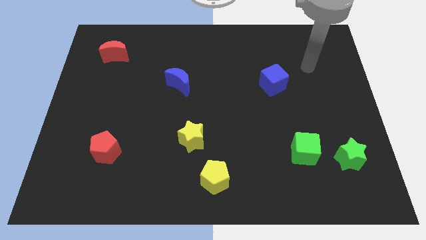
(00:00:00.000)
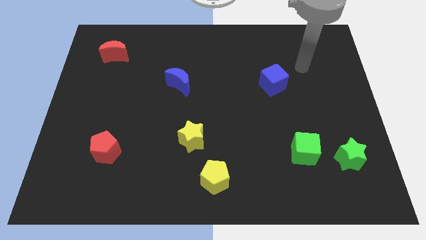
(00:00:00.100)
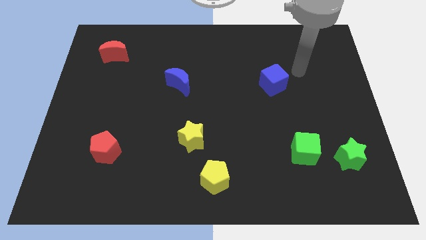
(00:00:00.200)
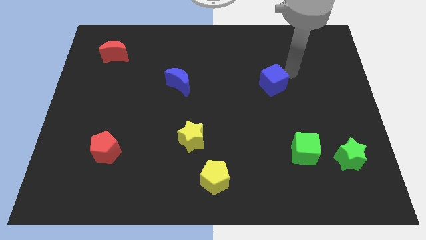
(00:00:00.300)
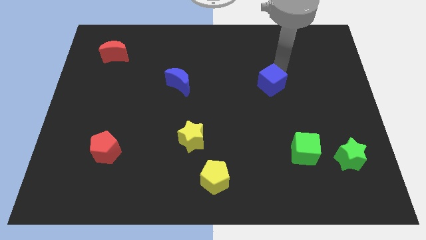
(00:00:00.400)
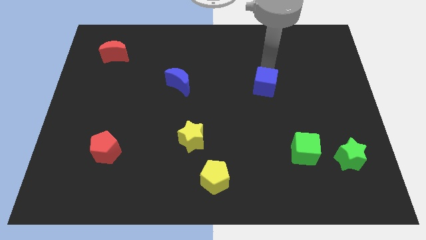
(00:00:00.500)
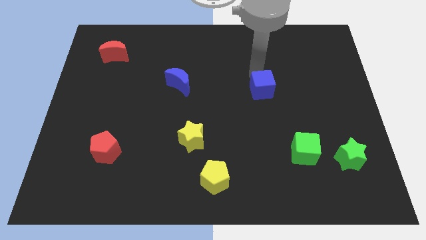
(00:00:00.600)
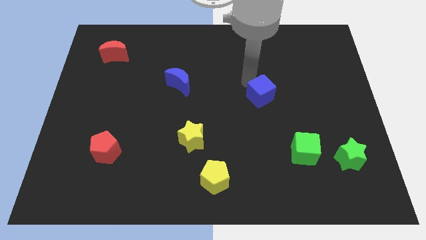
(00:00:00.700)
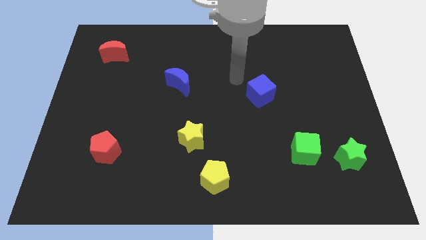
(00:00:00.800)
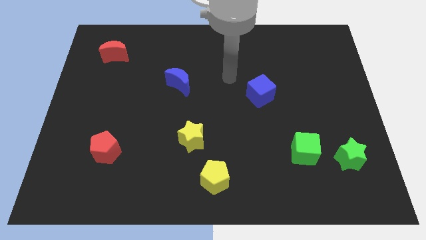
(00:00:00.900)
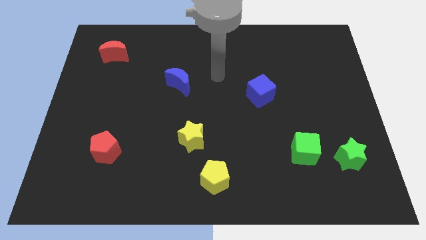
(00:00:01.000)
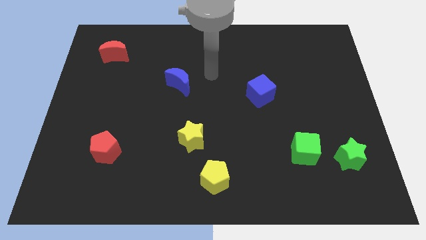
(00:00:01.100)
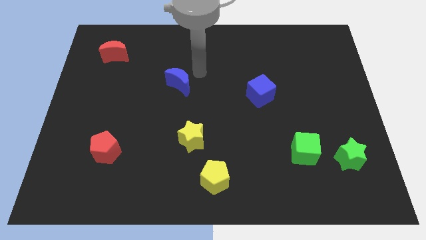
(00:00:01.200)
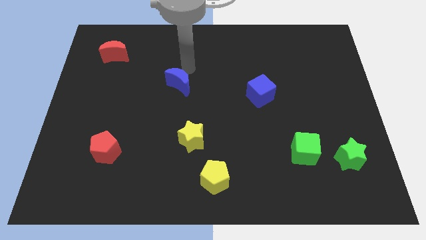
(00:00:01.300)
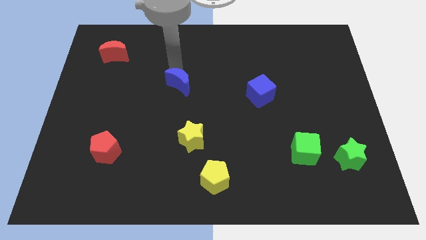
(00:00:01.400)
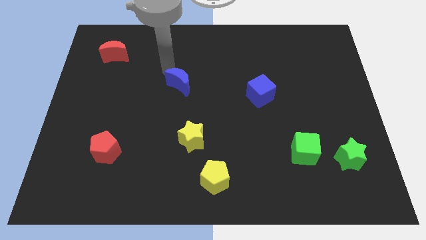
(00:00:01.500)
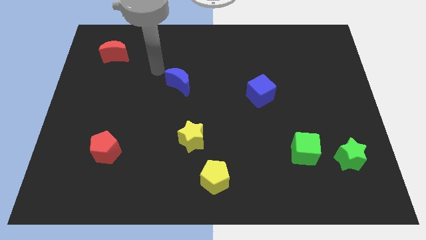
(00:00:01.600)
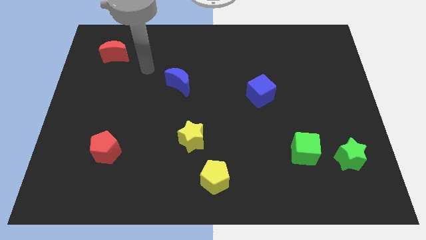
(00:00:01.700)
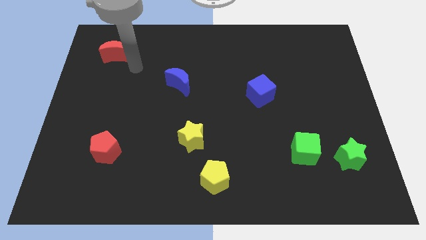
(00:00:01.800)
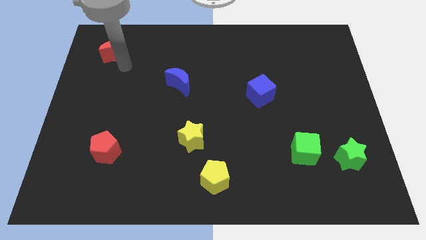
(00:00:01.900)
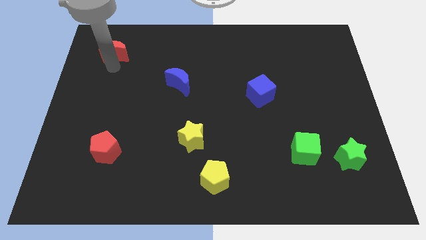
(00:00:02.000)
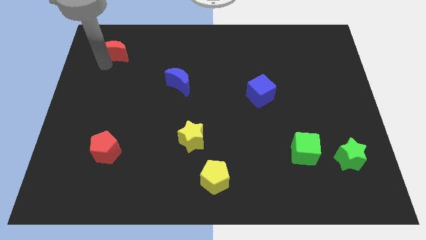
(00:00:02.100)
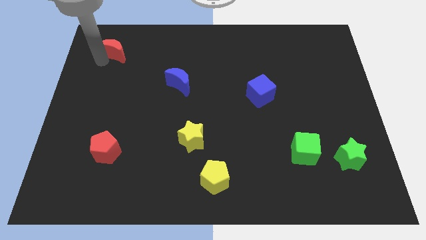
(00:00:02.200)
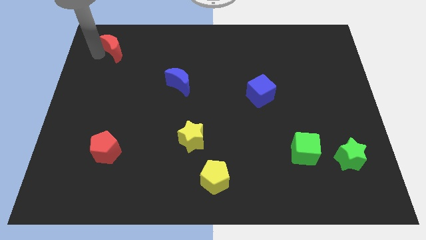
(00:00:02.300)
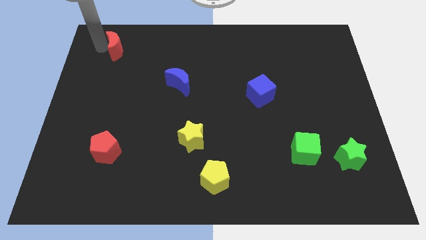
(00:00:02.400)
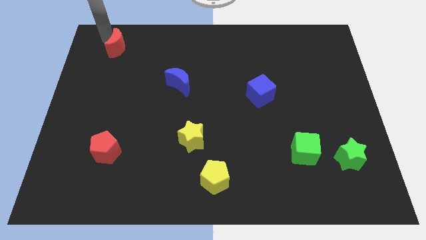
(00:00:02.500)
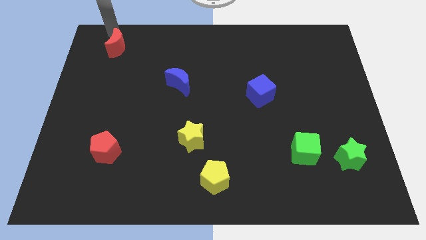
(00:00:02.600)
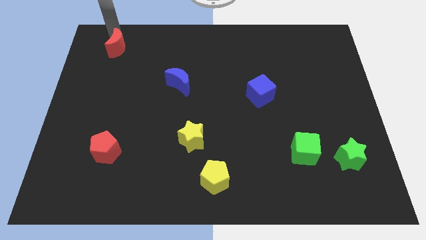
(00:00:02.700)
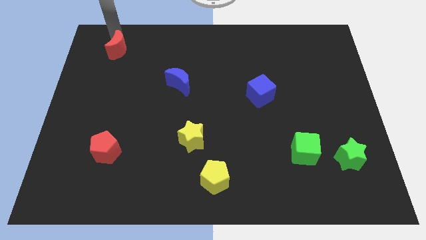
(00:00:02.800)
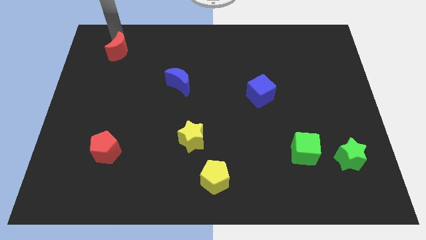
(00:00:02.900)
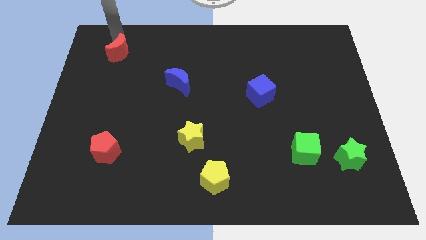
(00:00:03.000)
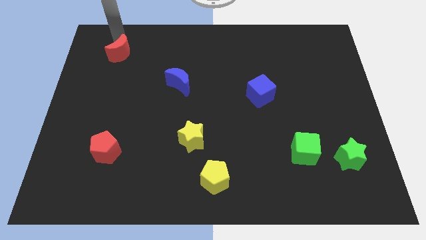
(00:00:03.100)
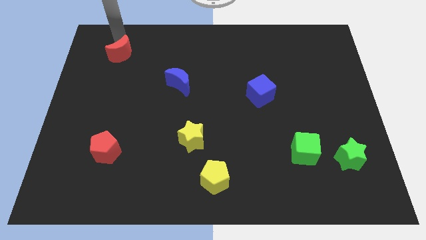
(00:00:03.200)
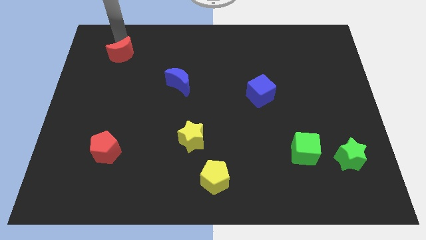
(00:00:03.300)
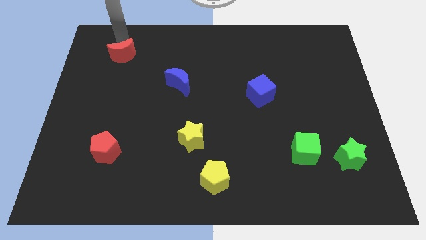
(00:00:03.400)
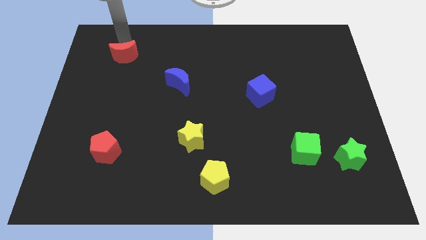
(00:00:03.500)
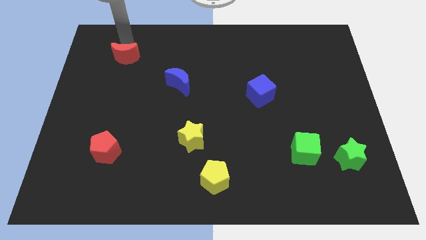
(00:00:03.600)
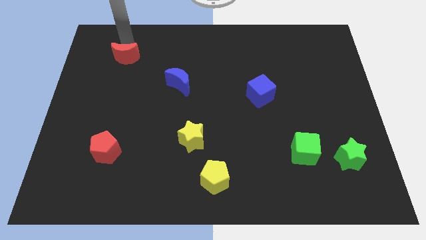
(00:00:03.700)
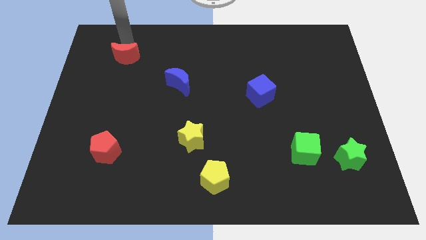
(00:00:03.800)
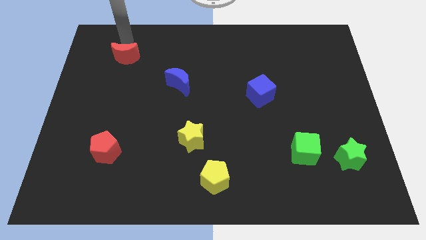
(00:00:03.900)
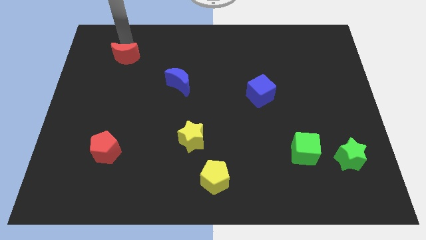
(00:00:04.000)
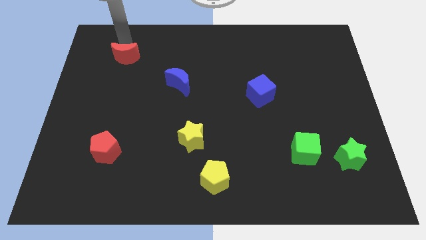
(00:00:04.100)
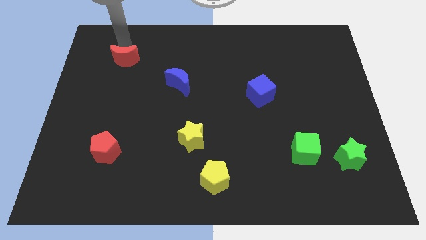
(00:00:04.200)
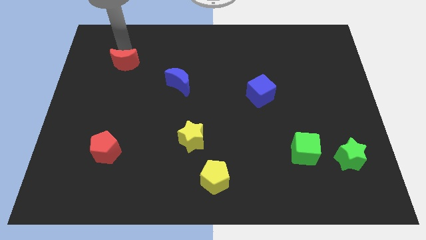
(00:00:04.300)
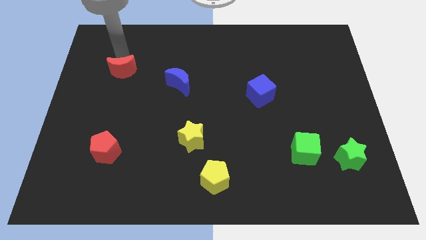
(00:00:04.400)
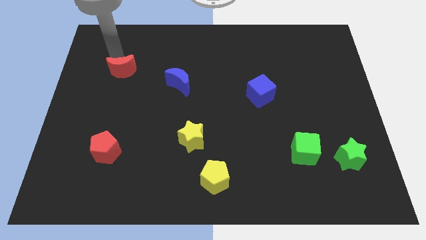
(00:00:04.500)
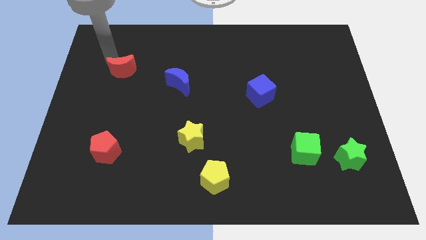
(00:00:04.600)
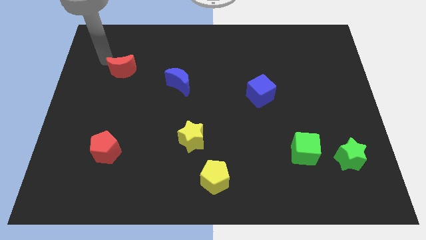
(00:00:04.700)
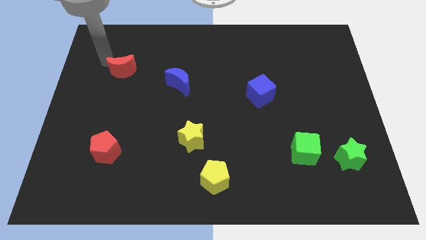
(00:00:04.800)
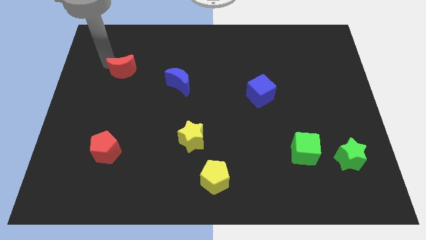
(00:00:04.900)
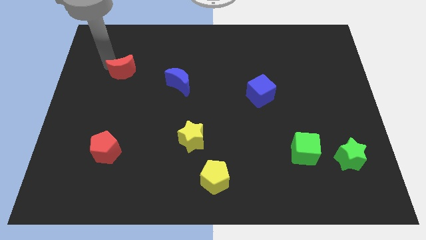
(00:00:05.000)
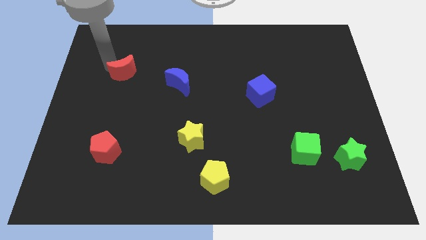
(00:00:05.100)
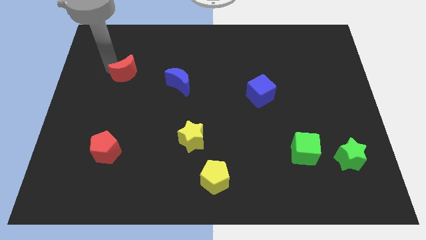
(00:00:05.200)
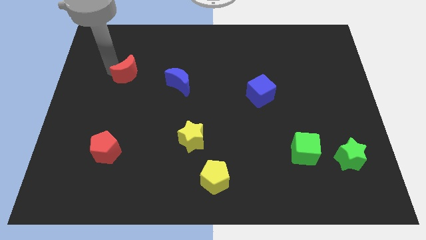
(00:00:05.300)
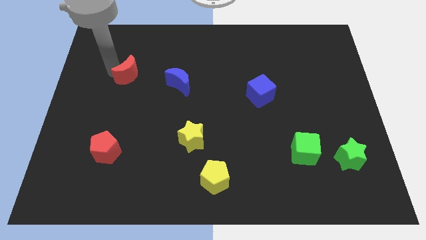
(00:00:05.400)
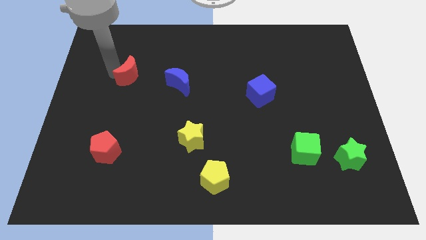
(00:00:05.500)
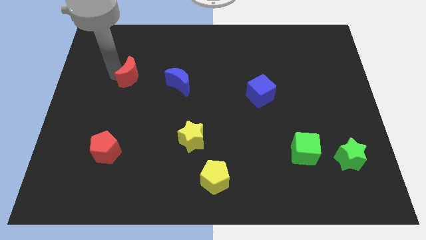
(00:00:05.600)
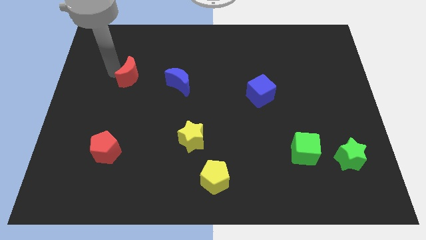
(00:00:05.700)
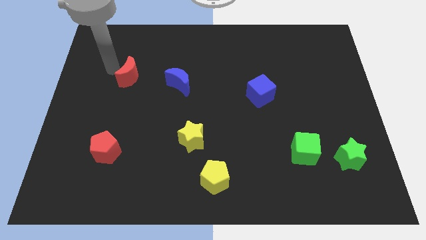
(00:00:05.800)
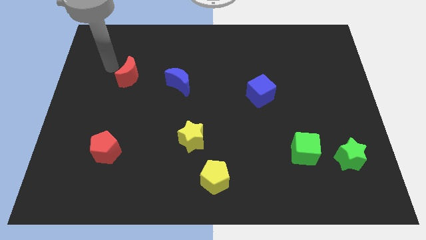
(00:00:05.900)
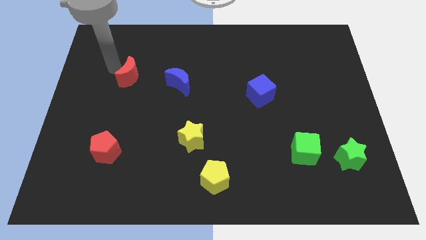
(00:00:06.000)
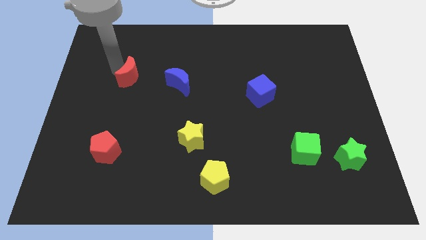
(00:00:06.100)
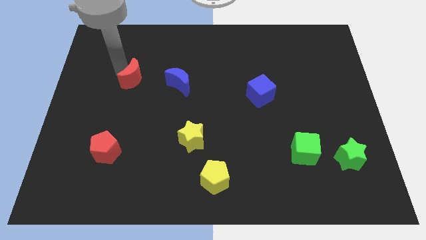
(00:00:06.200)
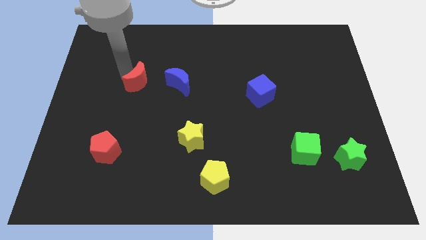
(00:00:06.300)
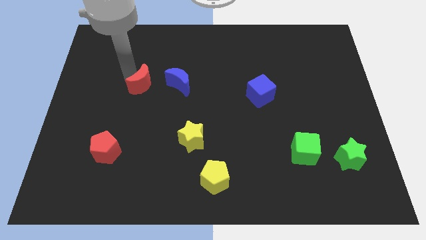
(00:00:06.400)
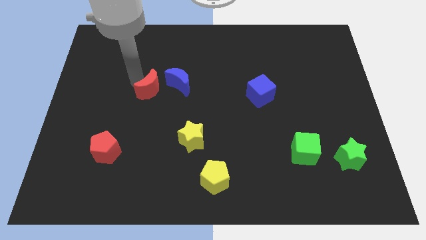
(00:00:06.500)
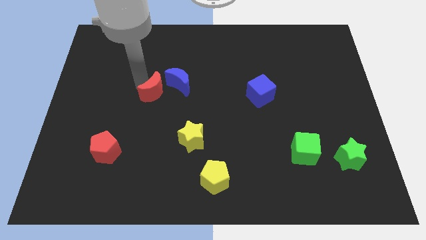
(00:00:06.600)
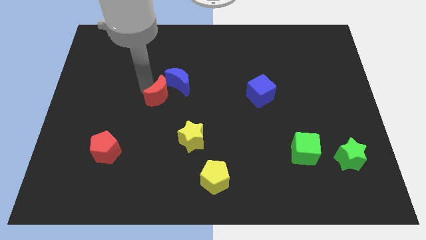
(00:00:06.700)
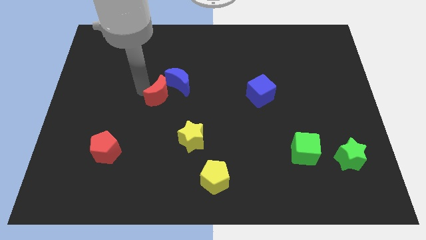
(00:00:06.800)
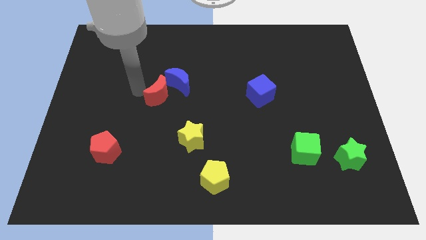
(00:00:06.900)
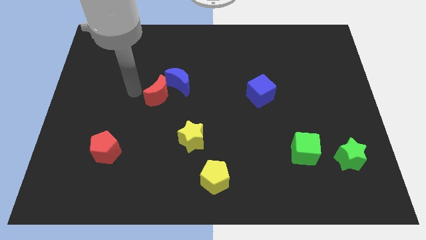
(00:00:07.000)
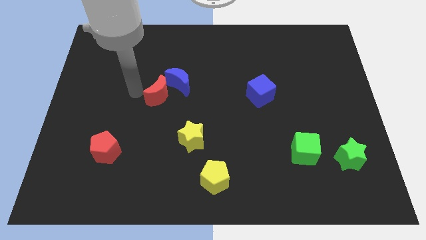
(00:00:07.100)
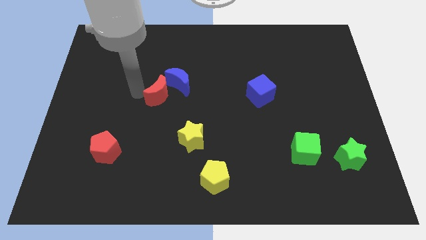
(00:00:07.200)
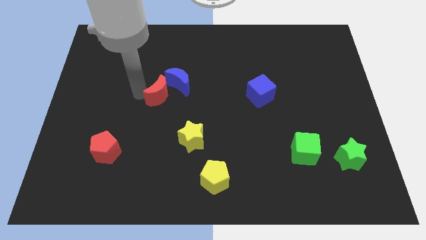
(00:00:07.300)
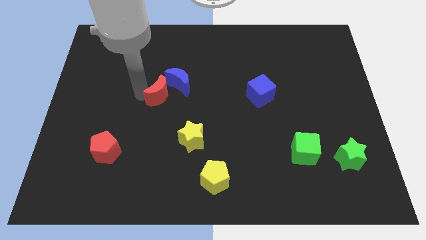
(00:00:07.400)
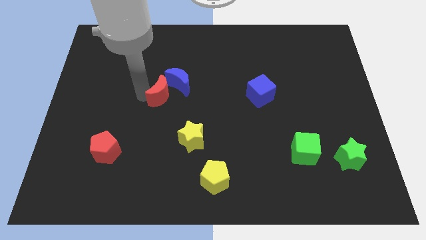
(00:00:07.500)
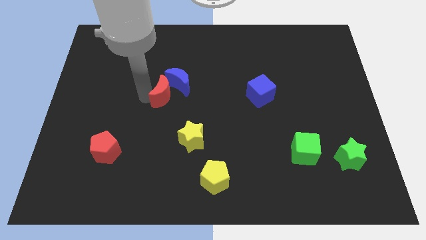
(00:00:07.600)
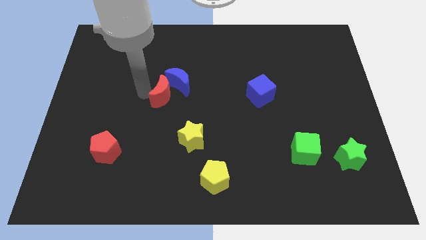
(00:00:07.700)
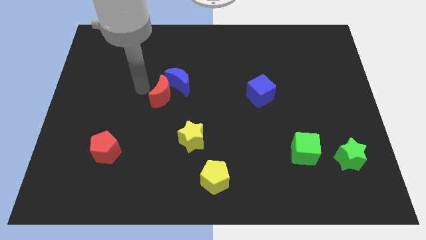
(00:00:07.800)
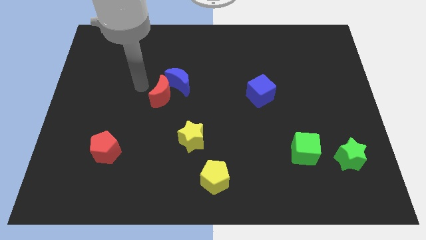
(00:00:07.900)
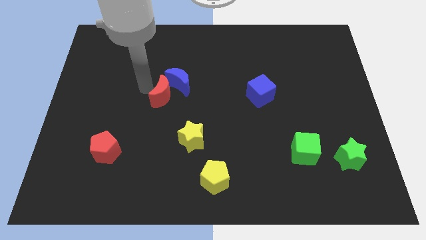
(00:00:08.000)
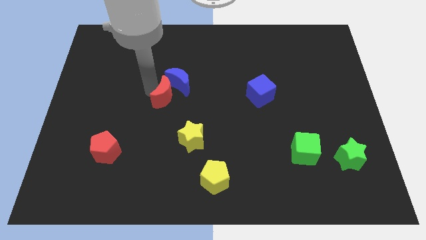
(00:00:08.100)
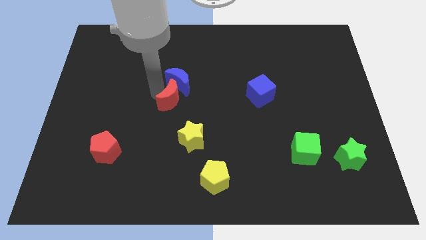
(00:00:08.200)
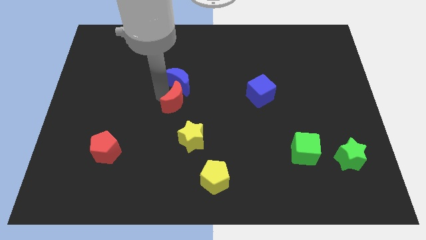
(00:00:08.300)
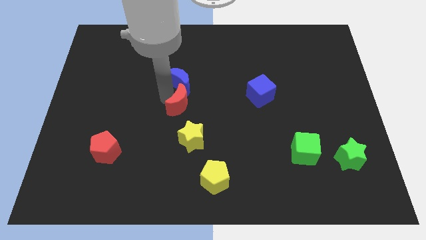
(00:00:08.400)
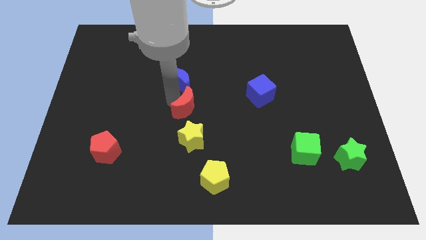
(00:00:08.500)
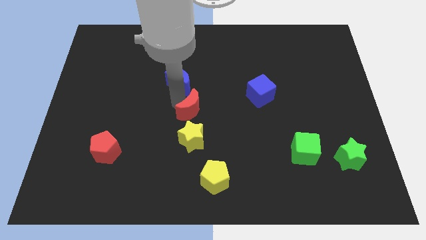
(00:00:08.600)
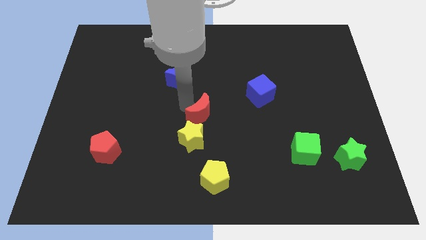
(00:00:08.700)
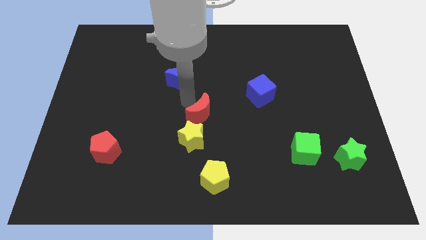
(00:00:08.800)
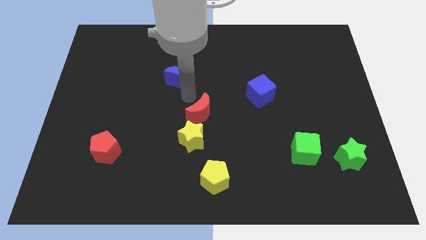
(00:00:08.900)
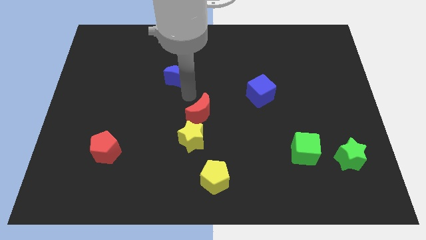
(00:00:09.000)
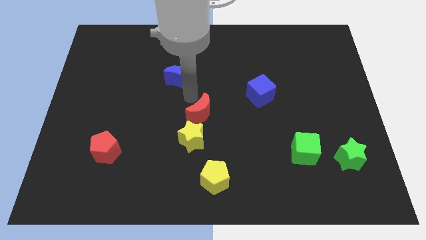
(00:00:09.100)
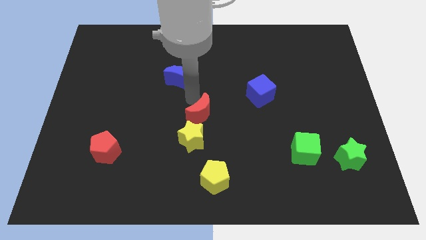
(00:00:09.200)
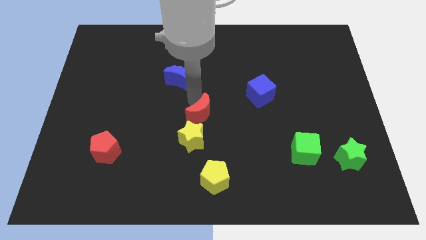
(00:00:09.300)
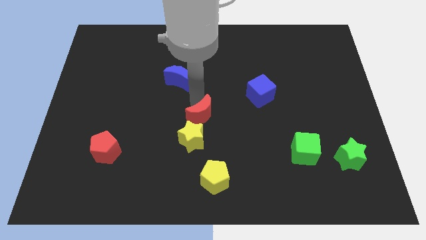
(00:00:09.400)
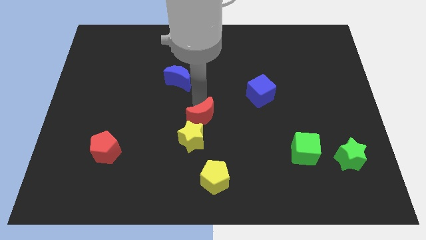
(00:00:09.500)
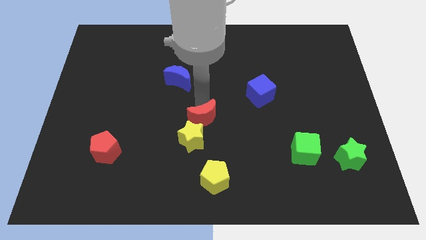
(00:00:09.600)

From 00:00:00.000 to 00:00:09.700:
slide the red moon to the top of the yellow pentagon
